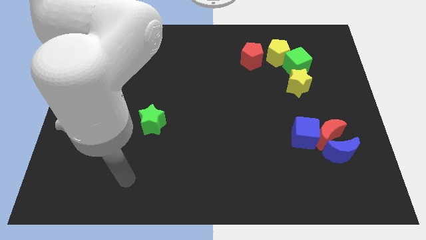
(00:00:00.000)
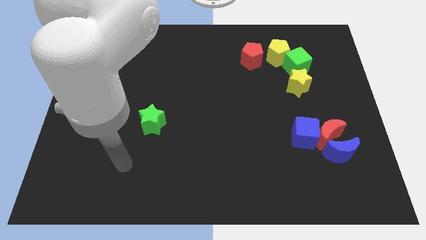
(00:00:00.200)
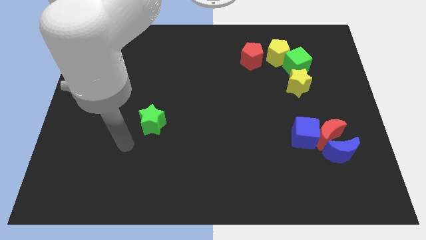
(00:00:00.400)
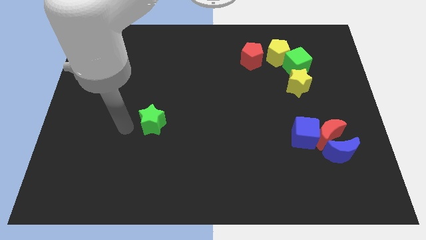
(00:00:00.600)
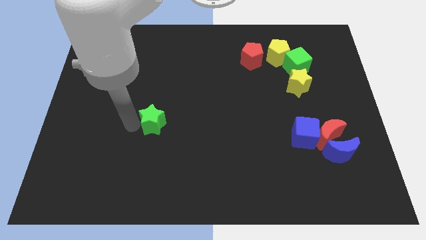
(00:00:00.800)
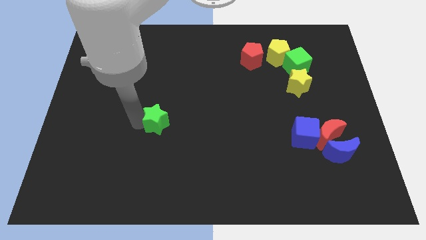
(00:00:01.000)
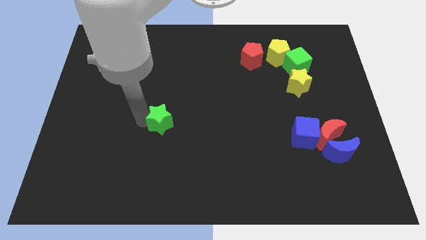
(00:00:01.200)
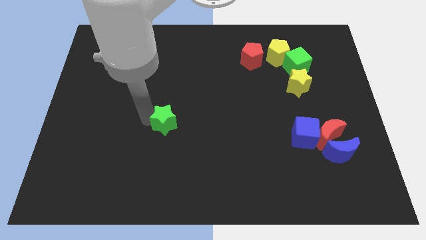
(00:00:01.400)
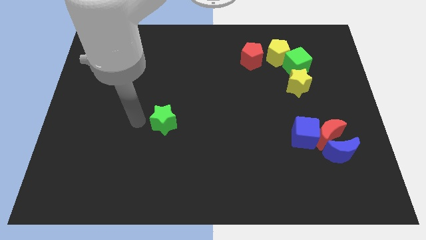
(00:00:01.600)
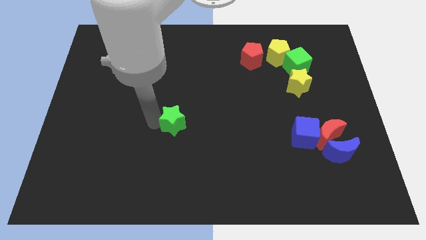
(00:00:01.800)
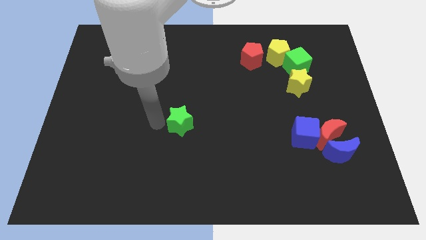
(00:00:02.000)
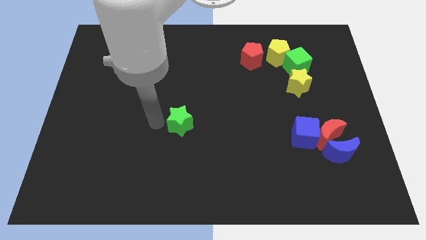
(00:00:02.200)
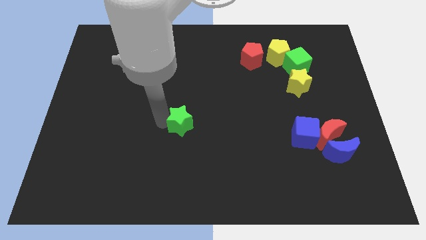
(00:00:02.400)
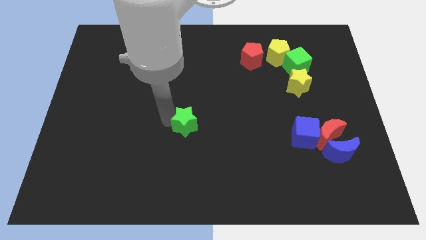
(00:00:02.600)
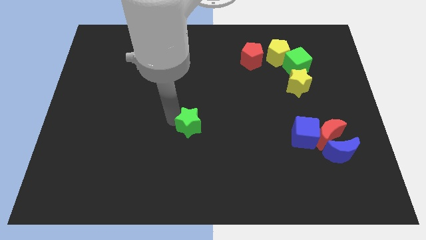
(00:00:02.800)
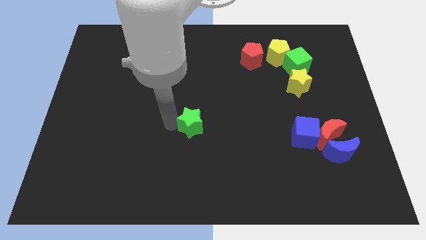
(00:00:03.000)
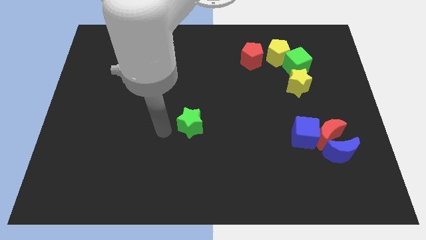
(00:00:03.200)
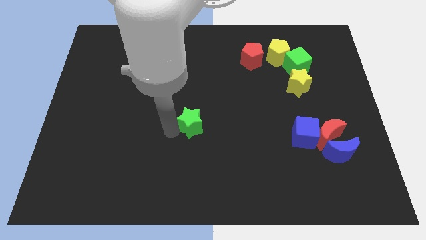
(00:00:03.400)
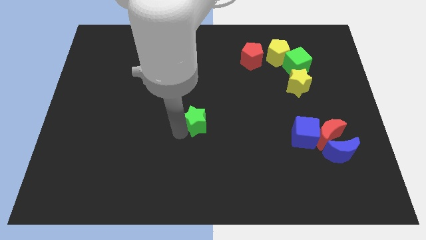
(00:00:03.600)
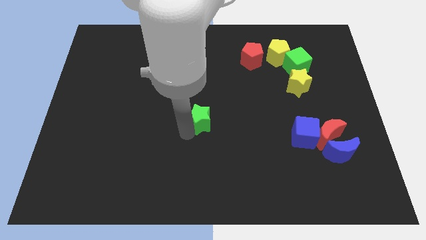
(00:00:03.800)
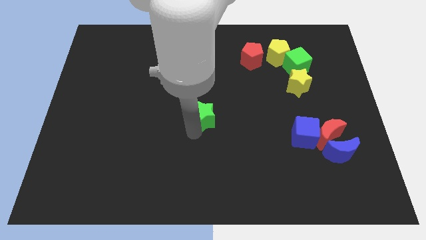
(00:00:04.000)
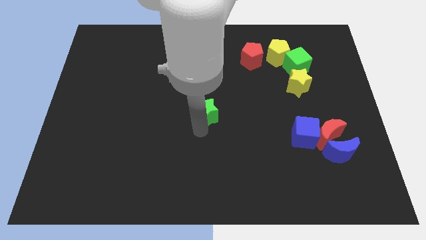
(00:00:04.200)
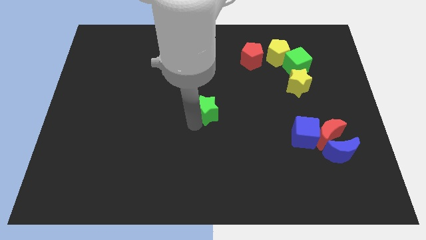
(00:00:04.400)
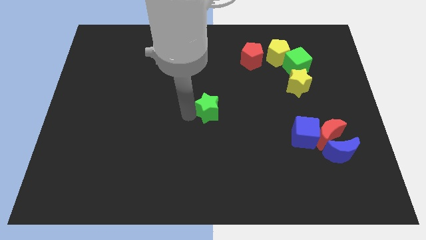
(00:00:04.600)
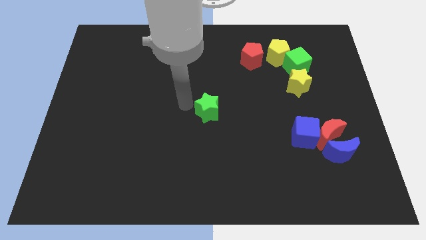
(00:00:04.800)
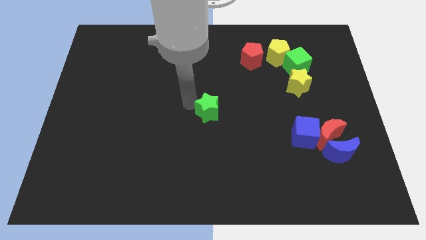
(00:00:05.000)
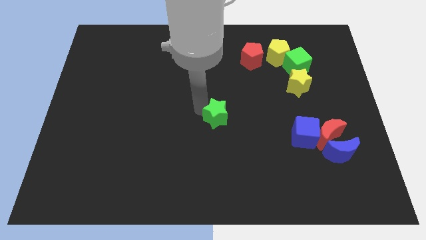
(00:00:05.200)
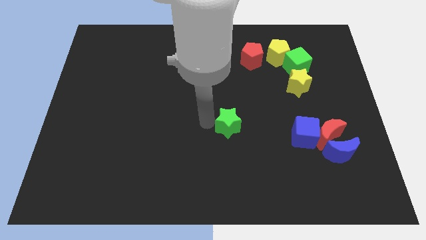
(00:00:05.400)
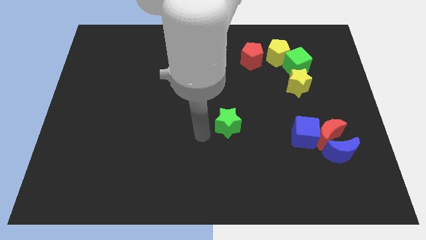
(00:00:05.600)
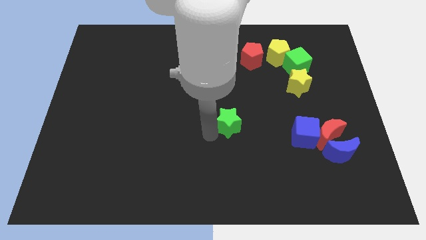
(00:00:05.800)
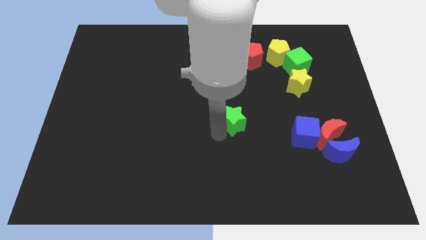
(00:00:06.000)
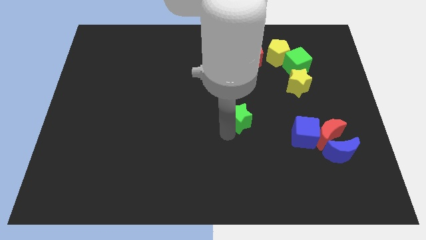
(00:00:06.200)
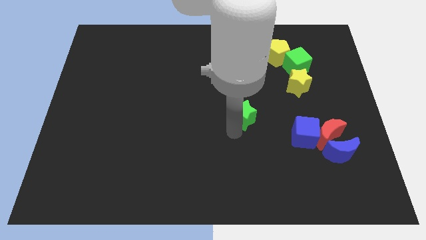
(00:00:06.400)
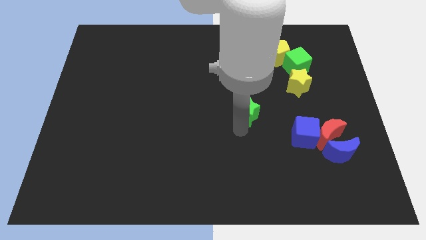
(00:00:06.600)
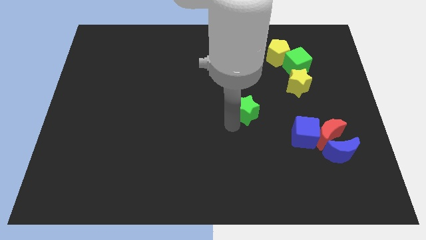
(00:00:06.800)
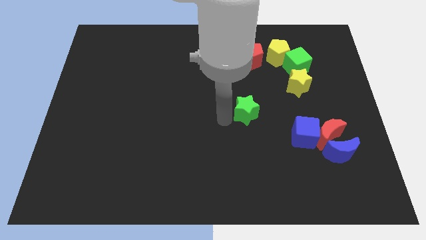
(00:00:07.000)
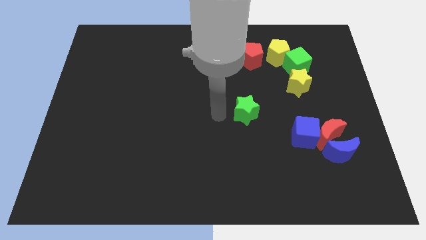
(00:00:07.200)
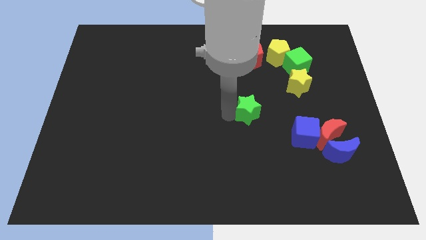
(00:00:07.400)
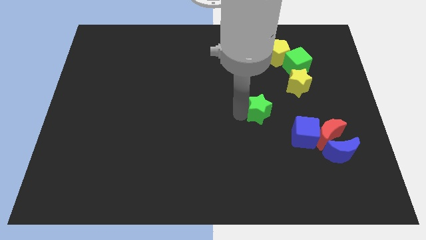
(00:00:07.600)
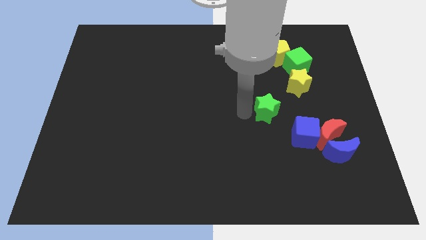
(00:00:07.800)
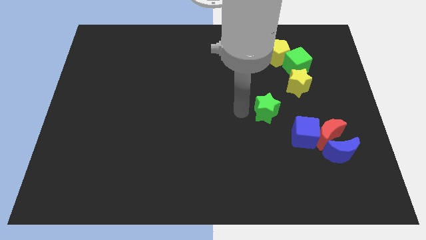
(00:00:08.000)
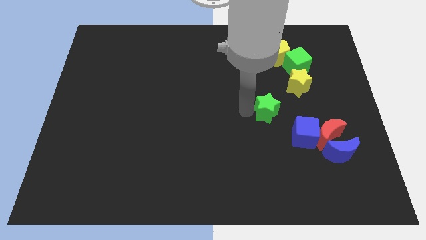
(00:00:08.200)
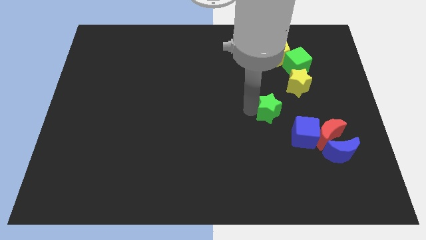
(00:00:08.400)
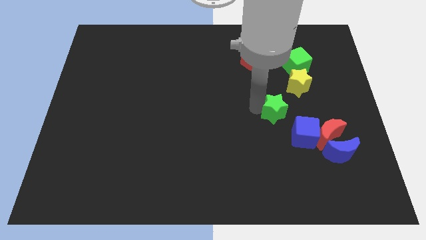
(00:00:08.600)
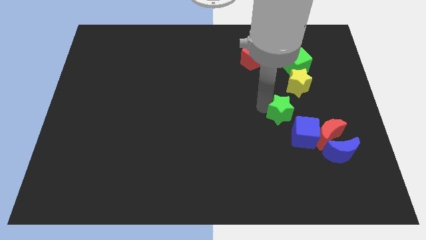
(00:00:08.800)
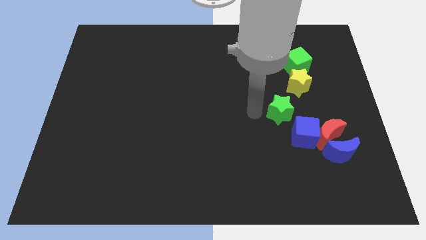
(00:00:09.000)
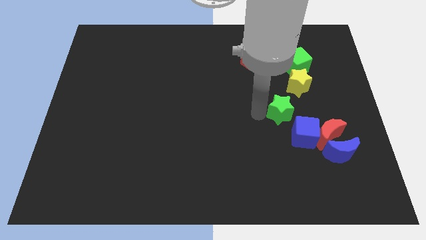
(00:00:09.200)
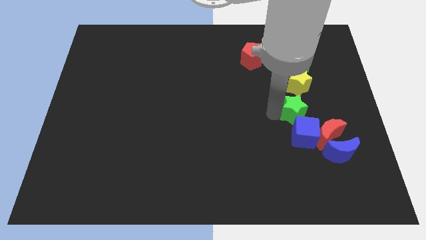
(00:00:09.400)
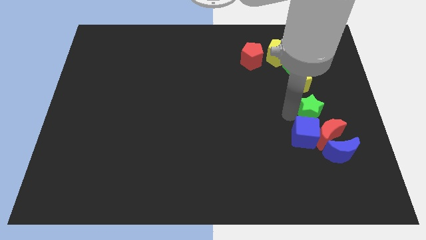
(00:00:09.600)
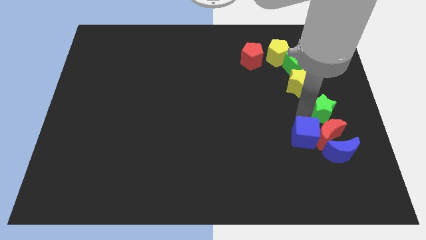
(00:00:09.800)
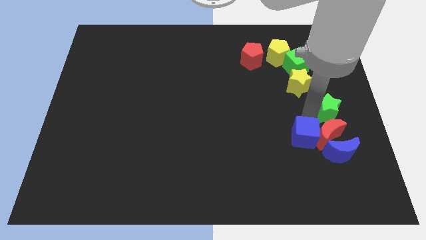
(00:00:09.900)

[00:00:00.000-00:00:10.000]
push the green star to the right side
